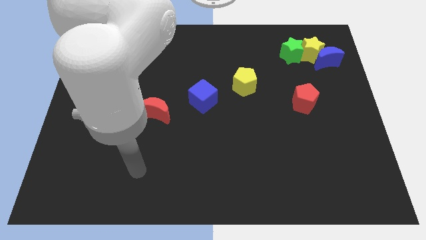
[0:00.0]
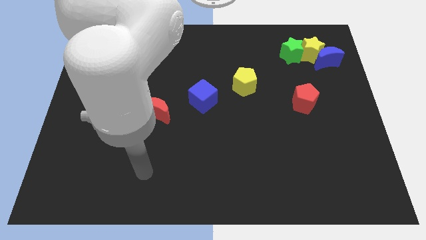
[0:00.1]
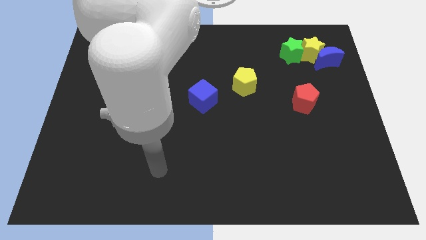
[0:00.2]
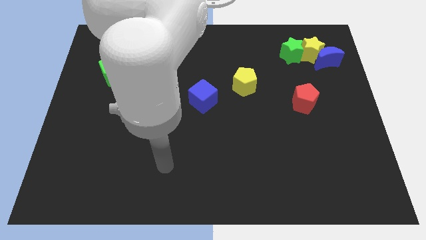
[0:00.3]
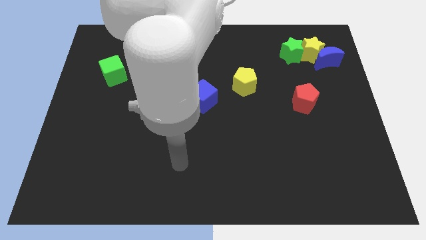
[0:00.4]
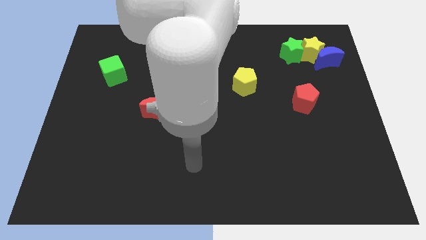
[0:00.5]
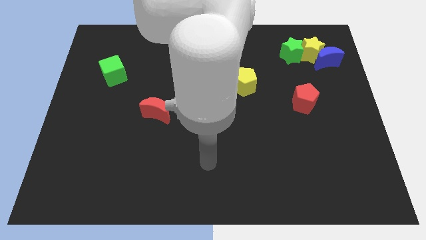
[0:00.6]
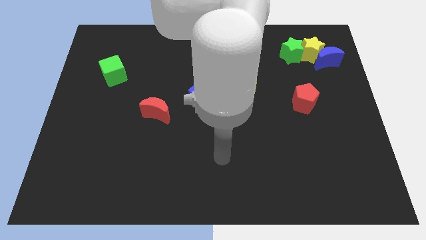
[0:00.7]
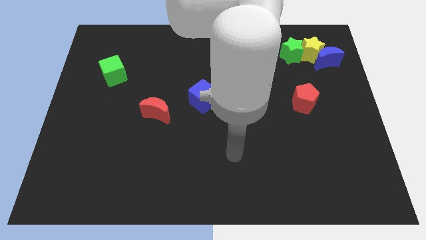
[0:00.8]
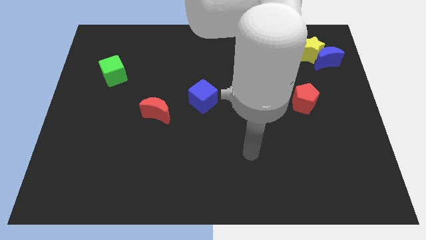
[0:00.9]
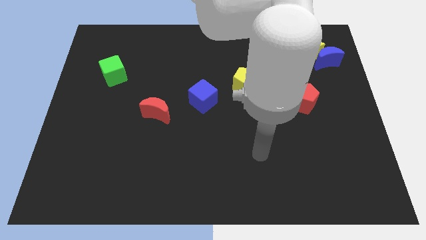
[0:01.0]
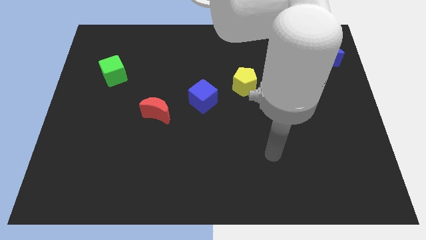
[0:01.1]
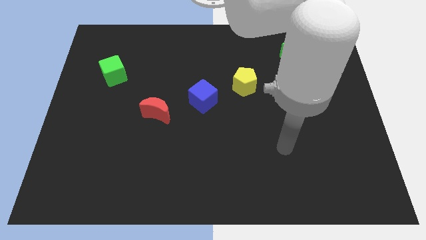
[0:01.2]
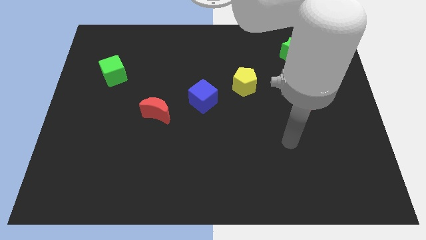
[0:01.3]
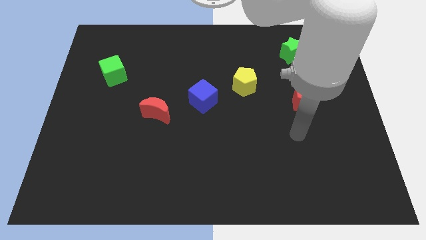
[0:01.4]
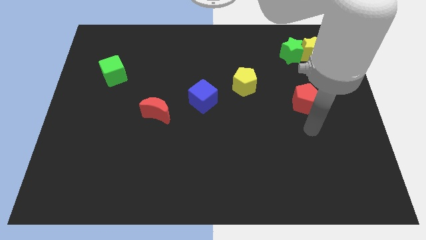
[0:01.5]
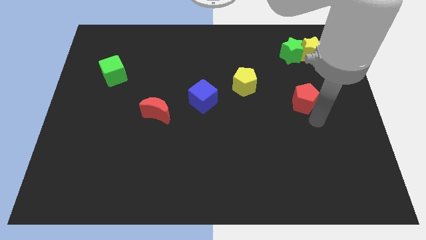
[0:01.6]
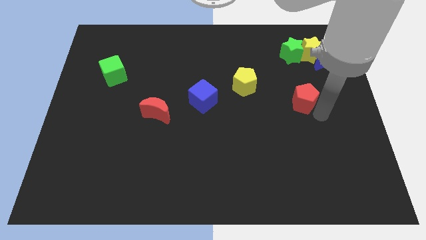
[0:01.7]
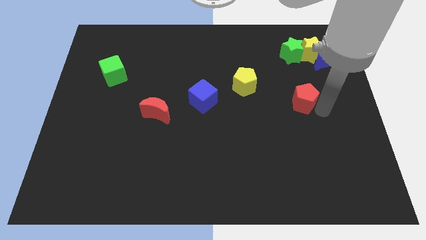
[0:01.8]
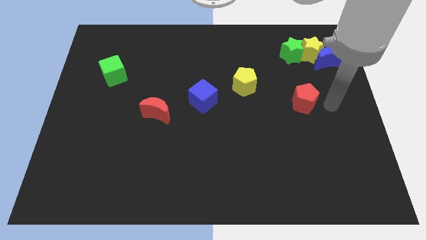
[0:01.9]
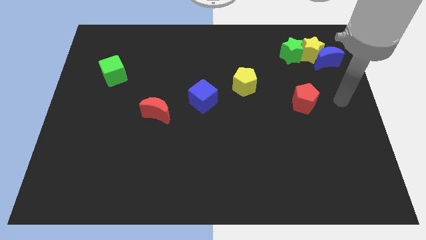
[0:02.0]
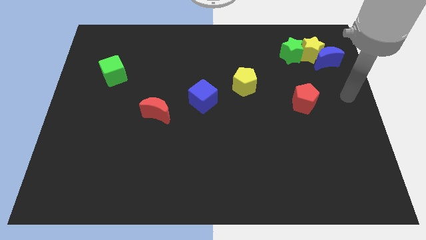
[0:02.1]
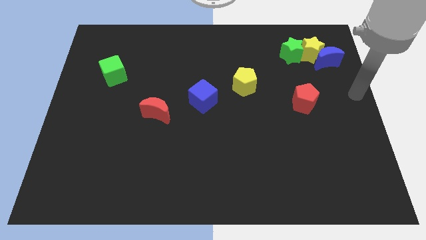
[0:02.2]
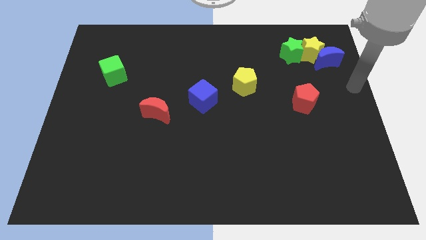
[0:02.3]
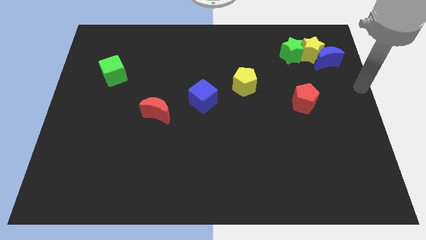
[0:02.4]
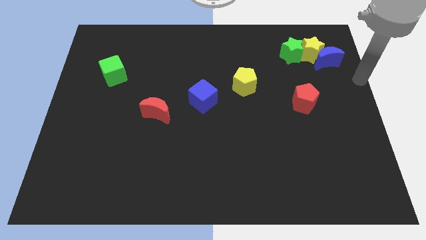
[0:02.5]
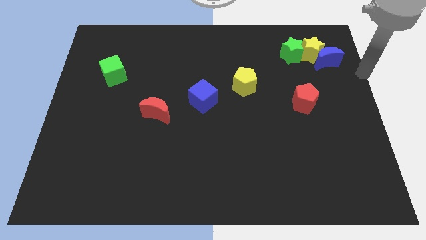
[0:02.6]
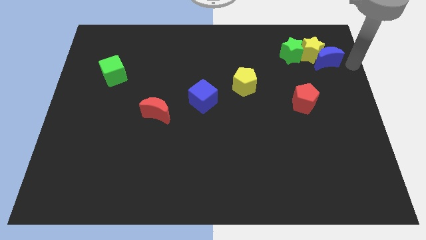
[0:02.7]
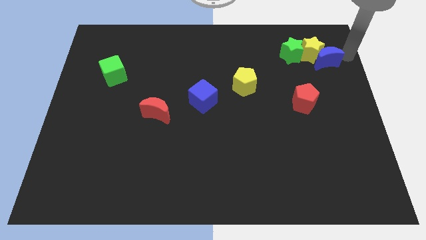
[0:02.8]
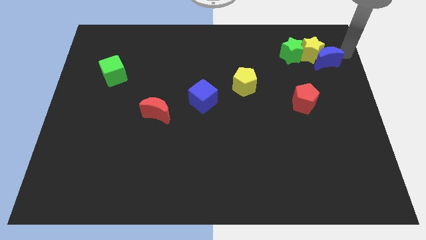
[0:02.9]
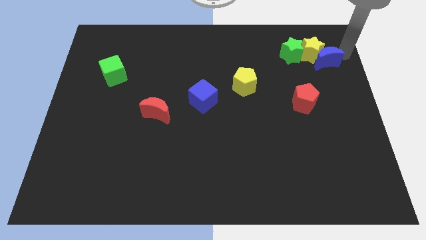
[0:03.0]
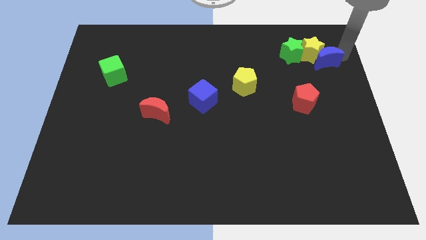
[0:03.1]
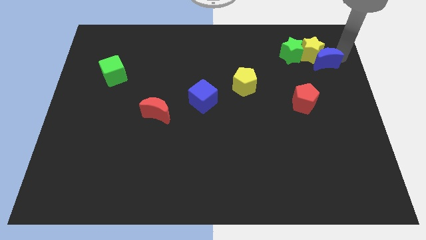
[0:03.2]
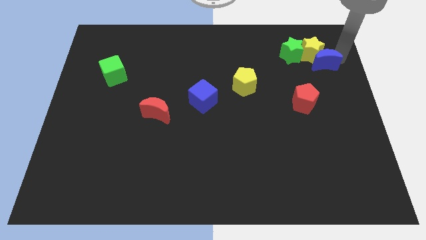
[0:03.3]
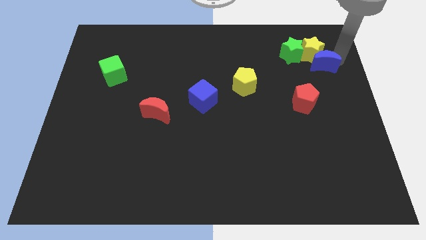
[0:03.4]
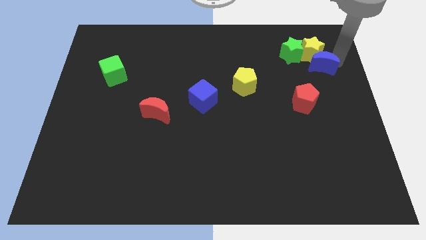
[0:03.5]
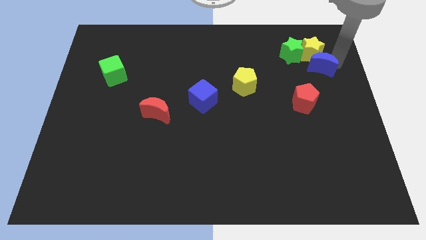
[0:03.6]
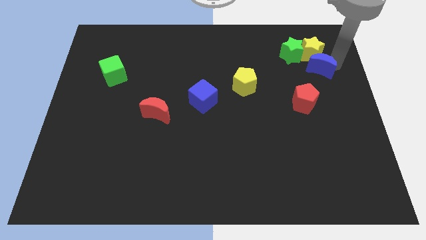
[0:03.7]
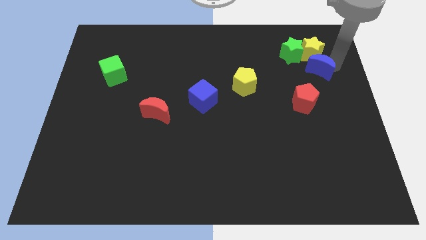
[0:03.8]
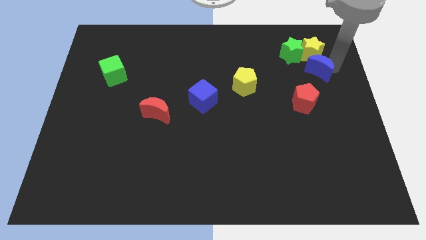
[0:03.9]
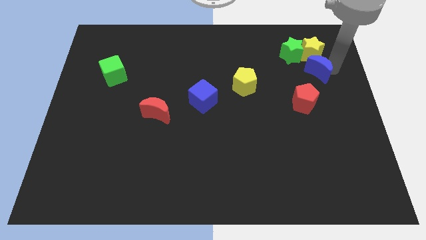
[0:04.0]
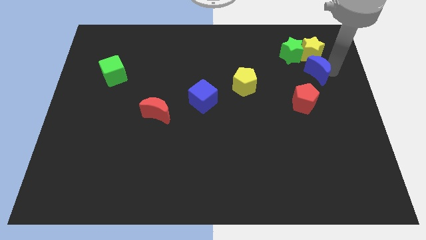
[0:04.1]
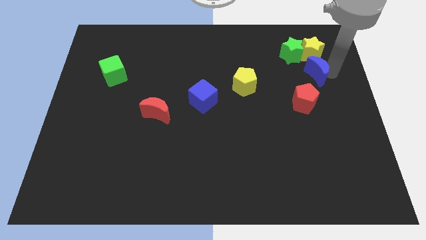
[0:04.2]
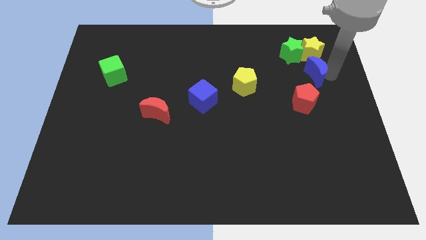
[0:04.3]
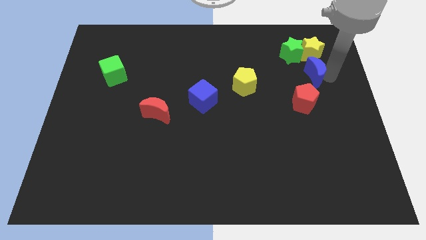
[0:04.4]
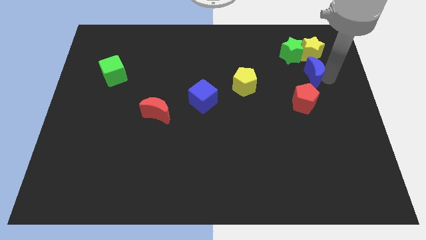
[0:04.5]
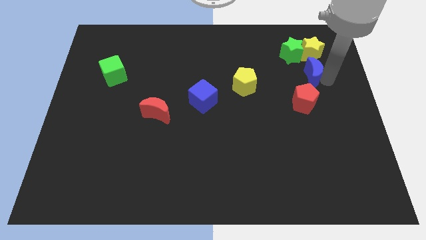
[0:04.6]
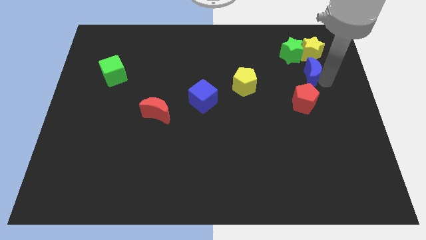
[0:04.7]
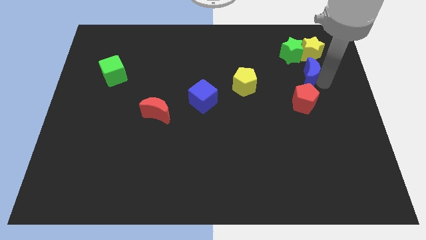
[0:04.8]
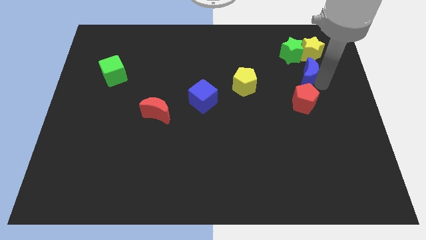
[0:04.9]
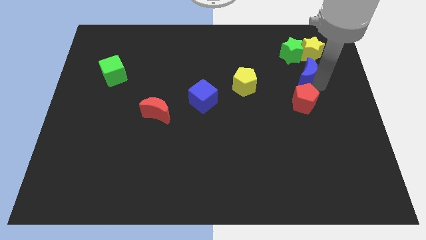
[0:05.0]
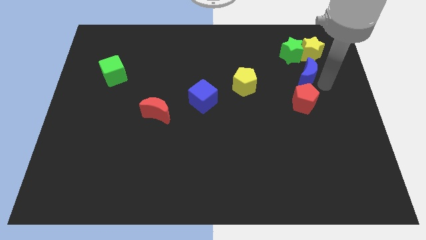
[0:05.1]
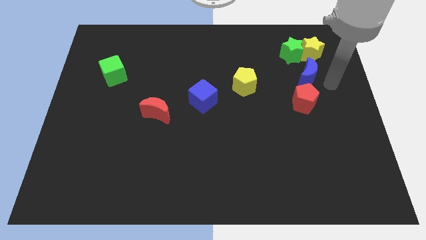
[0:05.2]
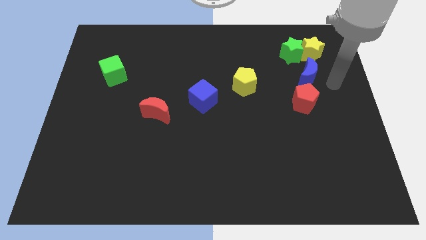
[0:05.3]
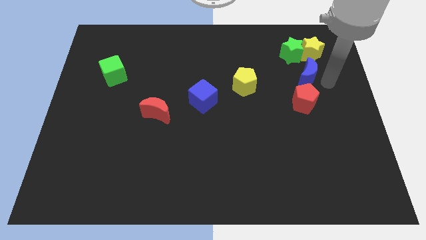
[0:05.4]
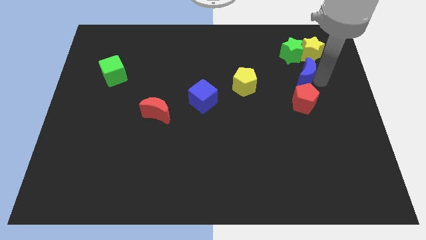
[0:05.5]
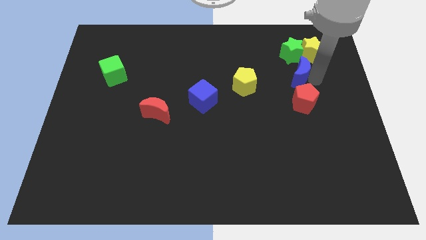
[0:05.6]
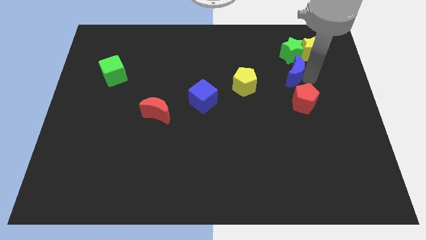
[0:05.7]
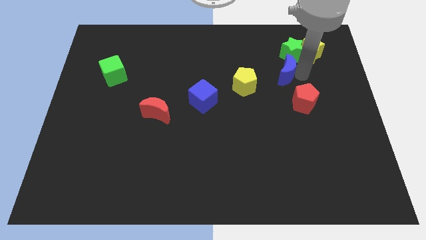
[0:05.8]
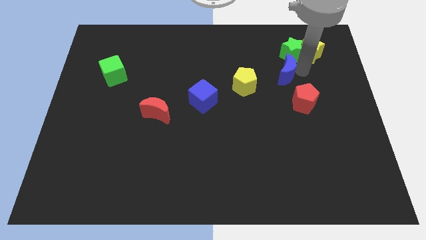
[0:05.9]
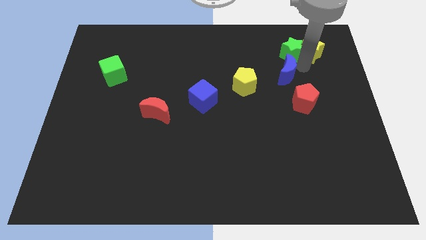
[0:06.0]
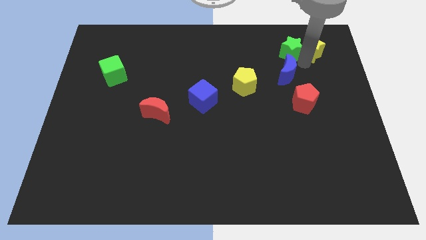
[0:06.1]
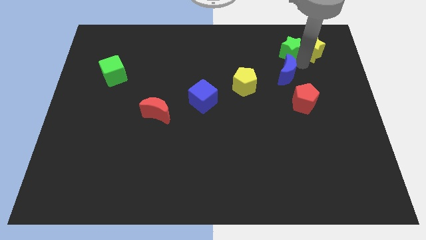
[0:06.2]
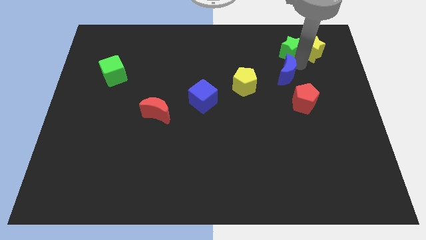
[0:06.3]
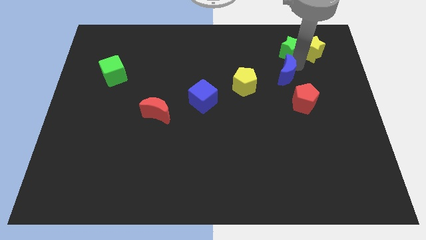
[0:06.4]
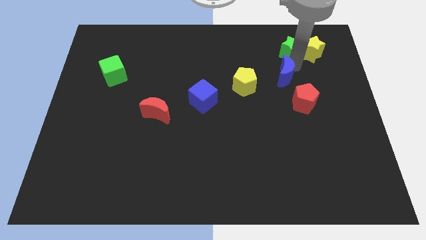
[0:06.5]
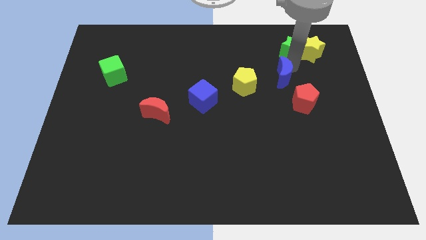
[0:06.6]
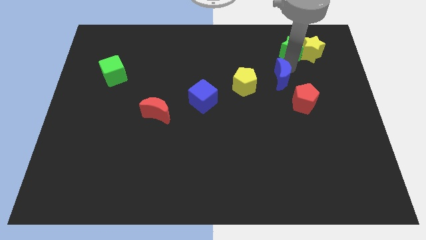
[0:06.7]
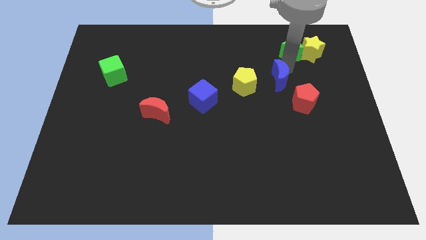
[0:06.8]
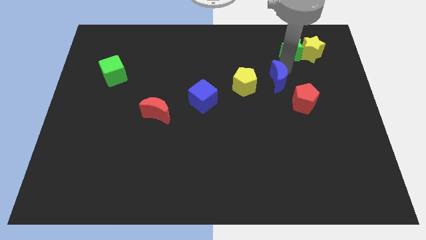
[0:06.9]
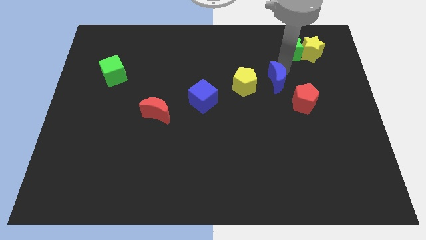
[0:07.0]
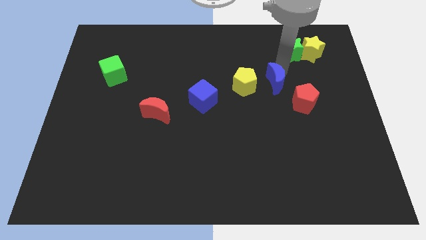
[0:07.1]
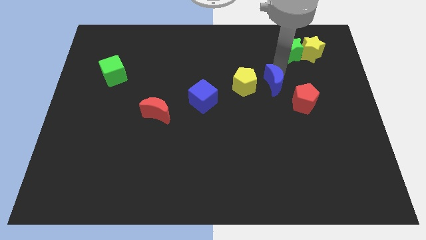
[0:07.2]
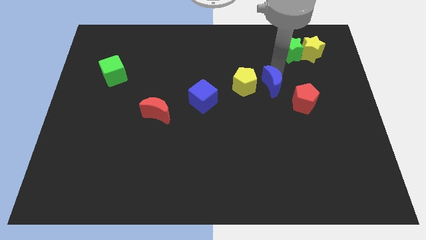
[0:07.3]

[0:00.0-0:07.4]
put the blue moon diagonally down and to the right of the yellow pentagon

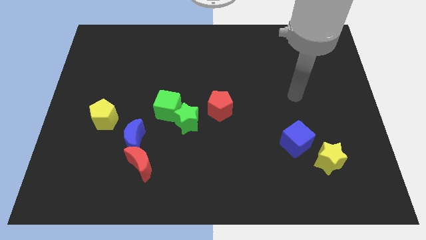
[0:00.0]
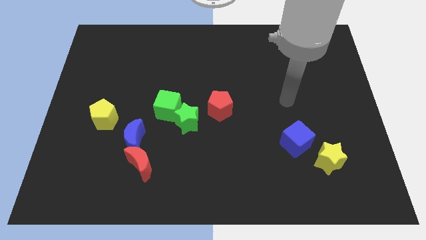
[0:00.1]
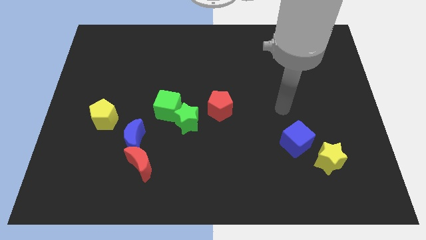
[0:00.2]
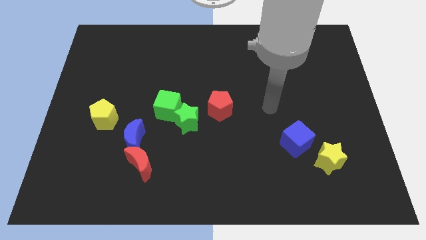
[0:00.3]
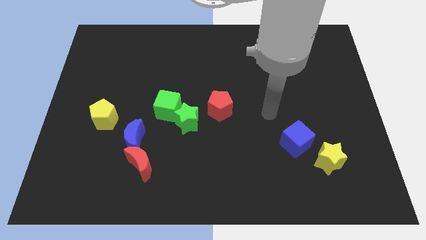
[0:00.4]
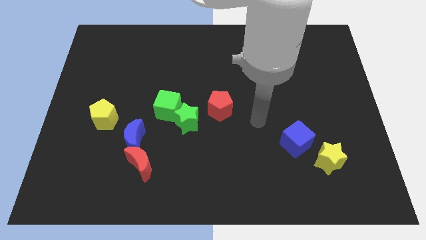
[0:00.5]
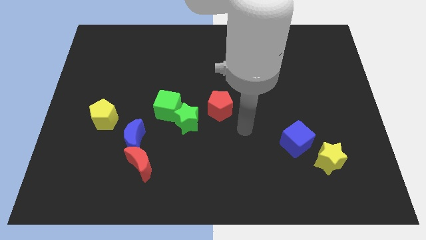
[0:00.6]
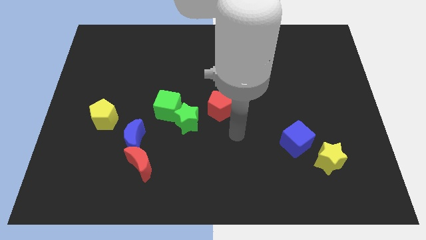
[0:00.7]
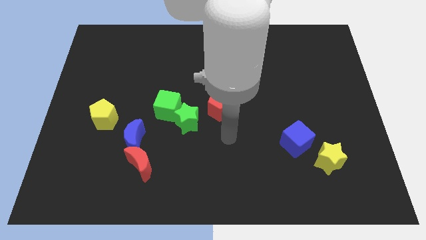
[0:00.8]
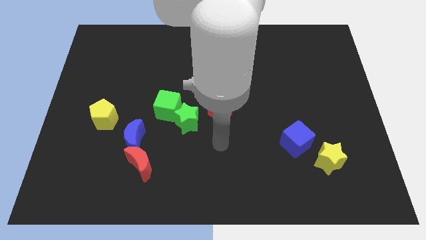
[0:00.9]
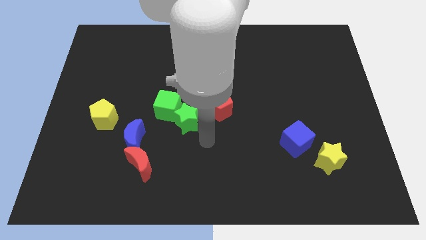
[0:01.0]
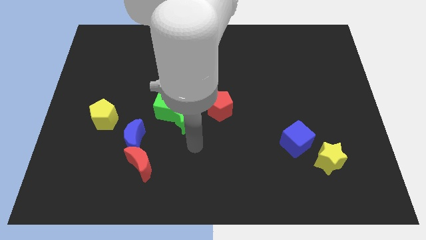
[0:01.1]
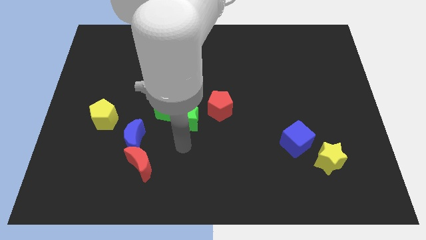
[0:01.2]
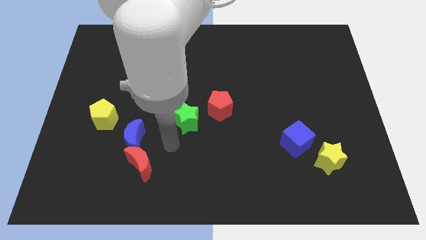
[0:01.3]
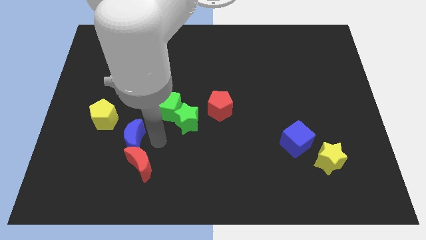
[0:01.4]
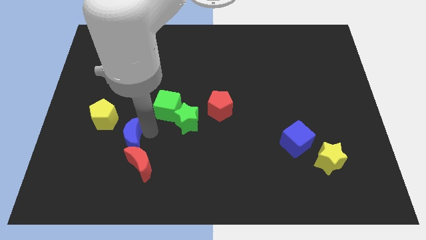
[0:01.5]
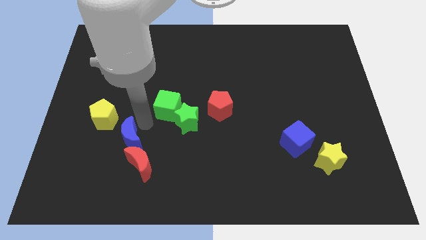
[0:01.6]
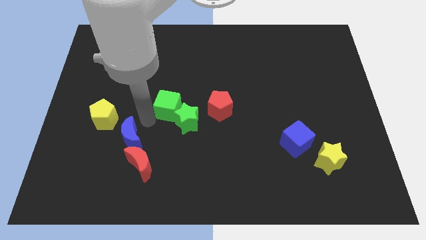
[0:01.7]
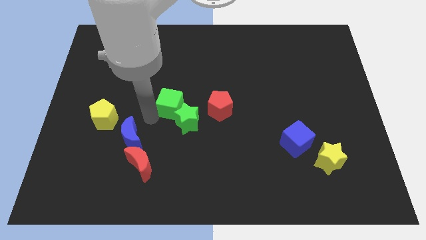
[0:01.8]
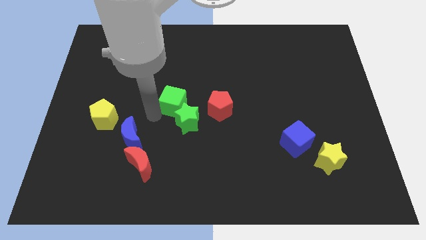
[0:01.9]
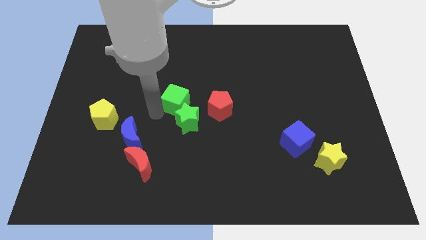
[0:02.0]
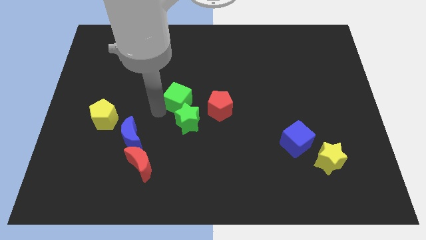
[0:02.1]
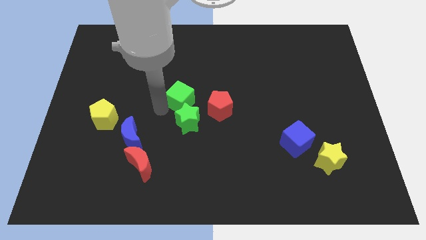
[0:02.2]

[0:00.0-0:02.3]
put the green cube to the top left side of the red pentagon
